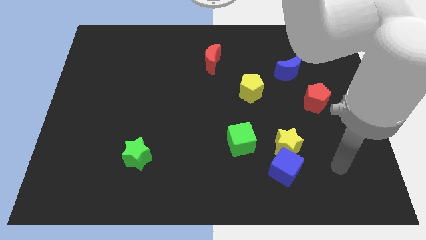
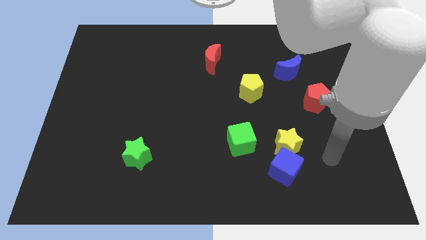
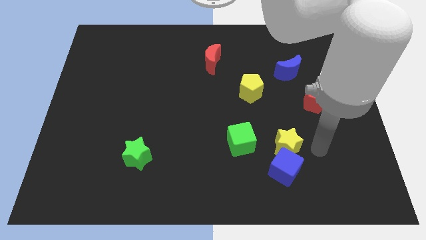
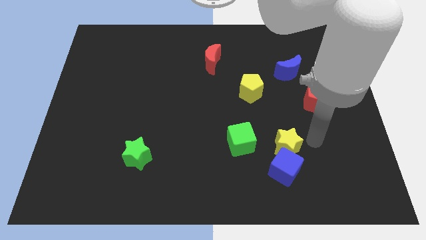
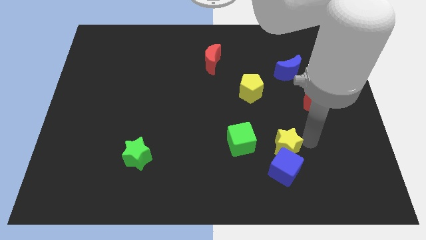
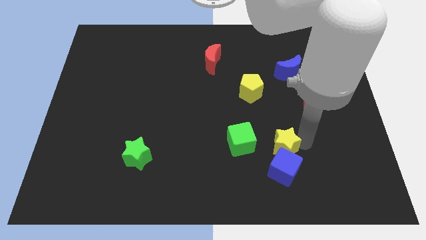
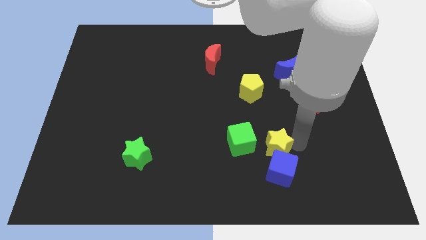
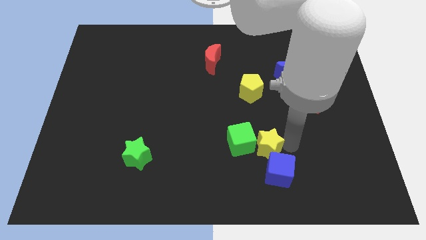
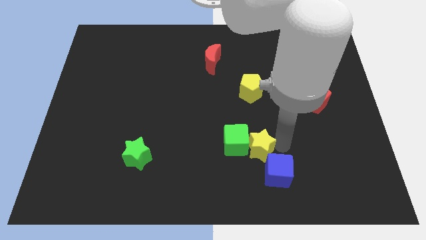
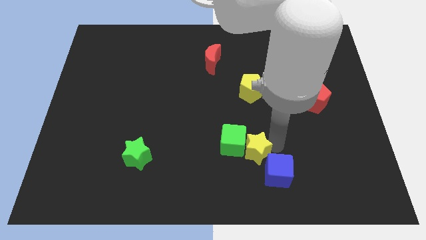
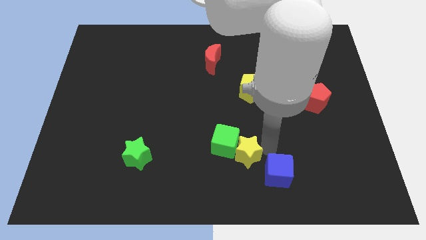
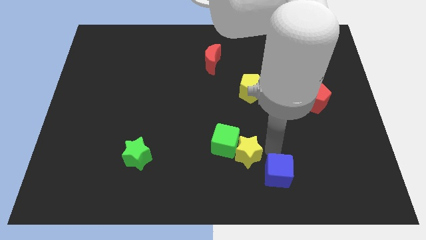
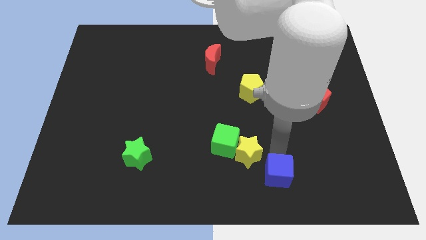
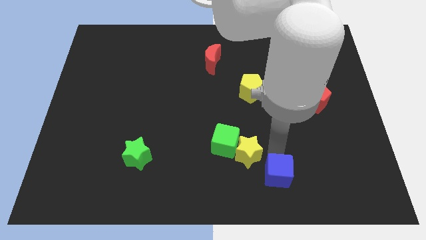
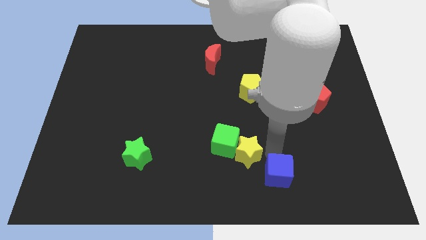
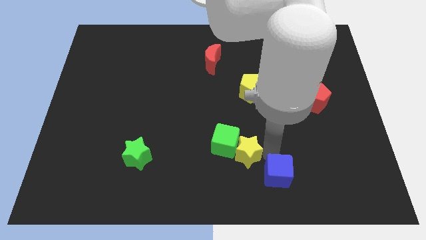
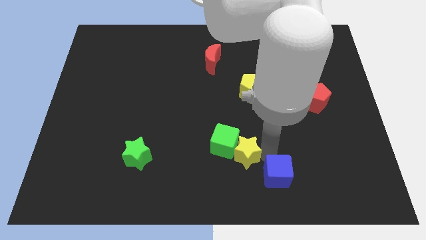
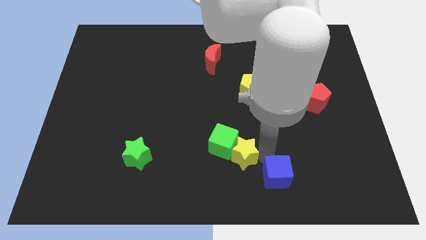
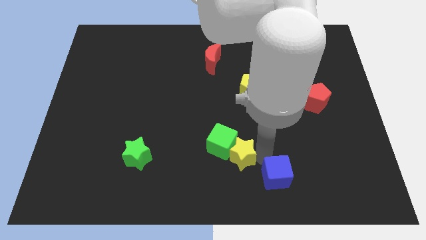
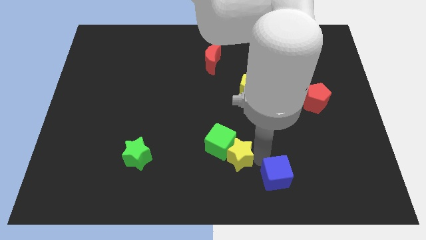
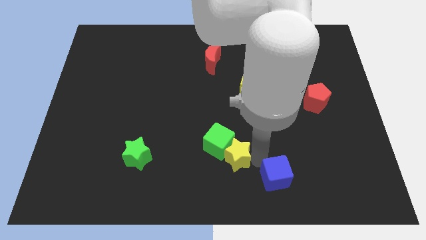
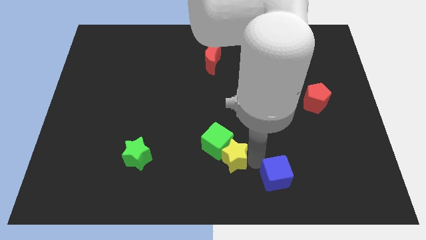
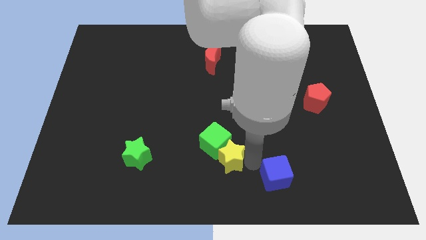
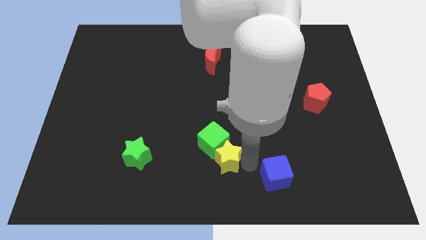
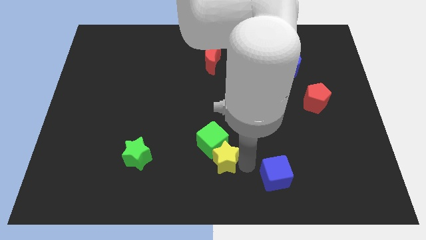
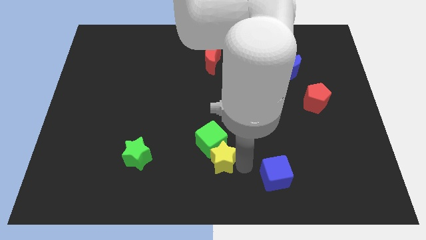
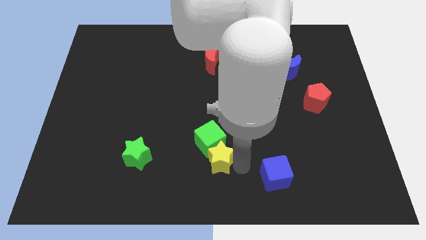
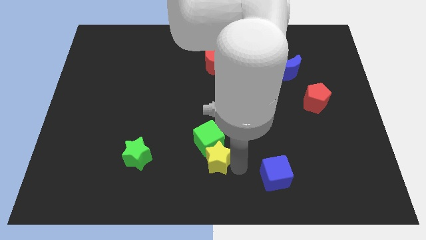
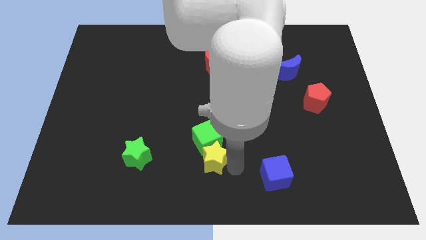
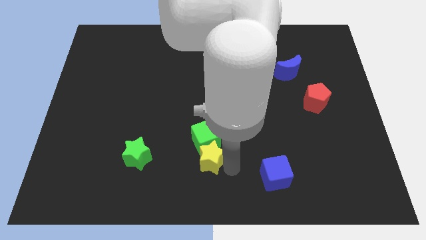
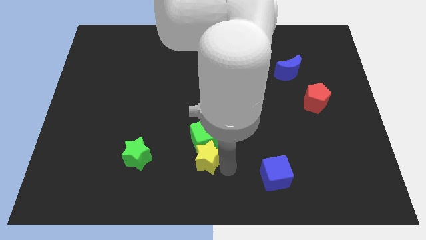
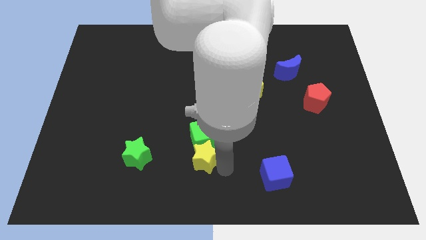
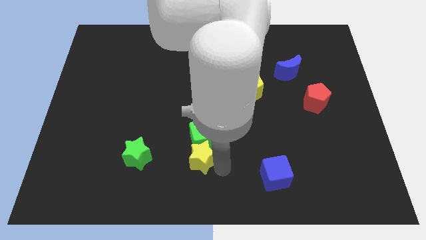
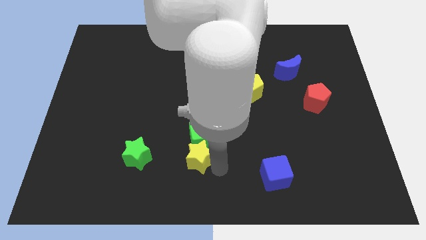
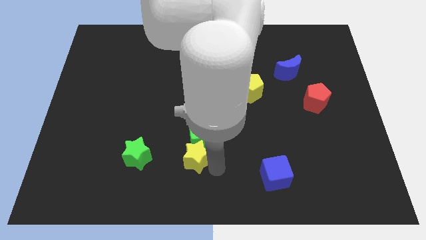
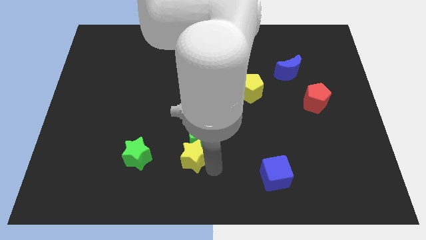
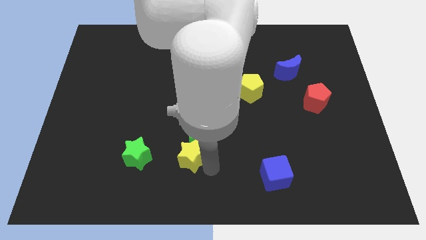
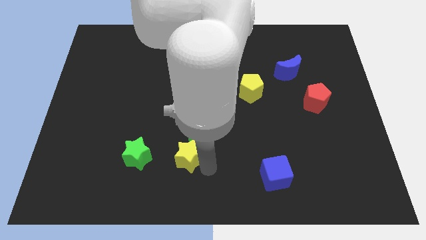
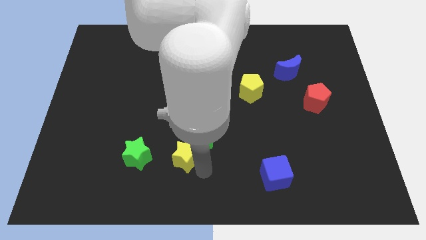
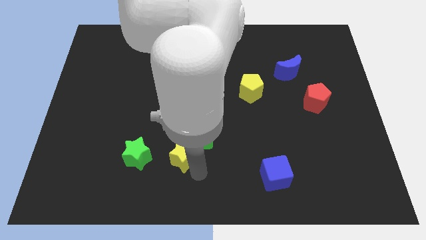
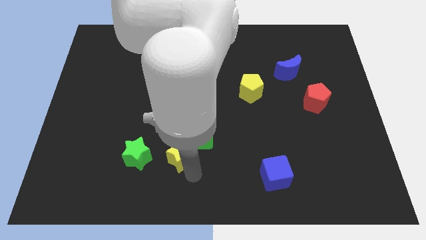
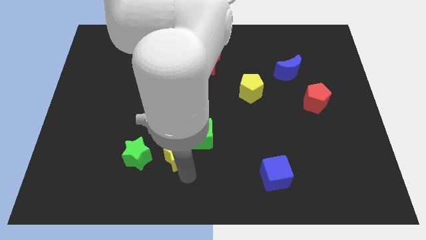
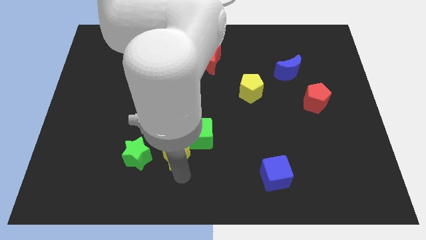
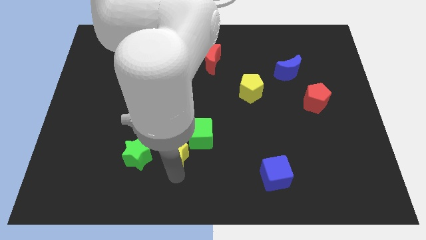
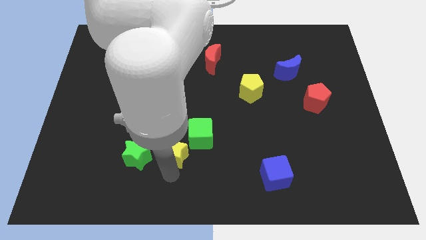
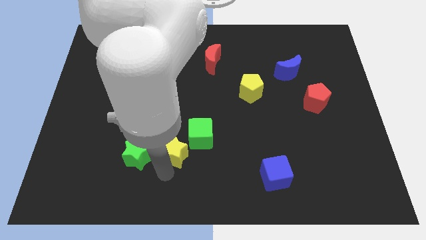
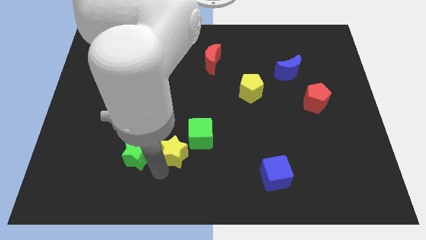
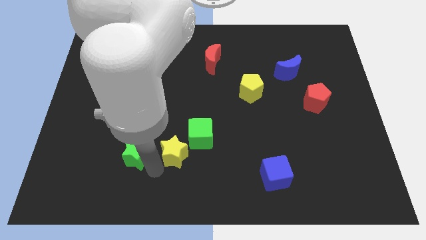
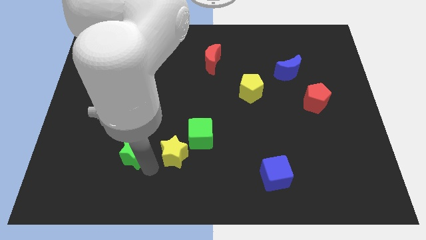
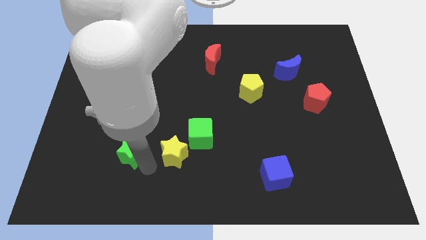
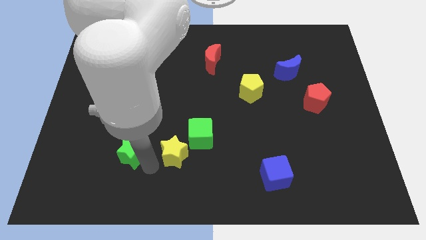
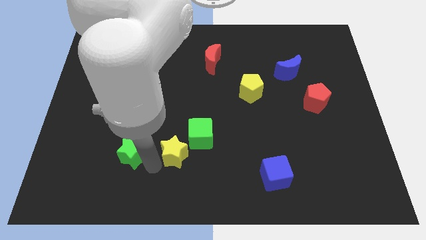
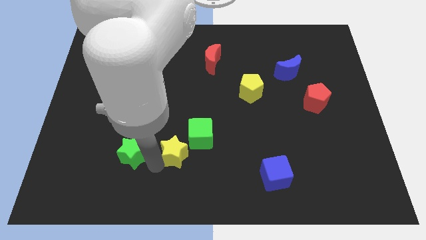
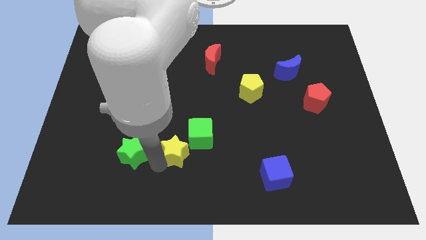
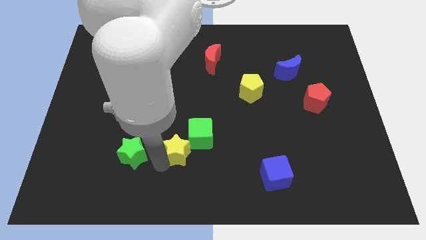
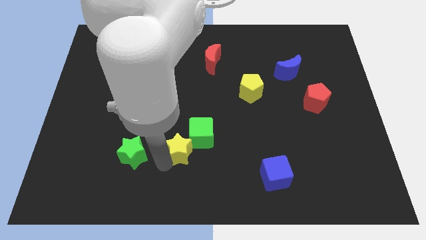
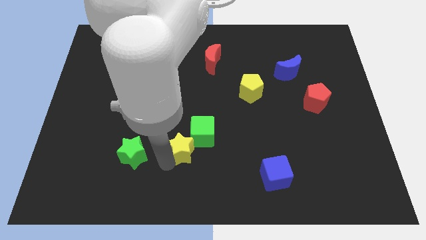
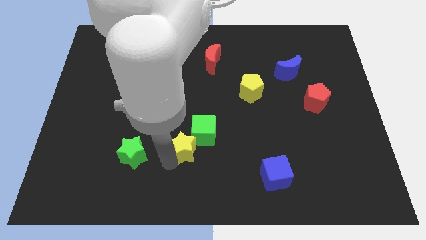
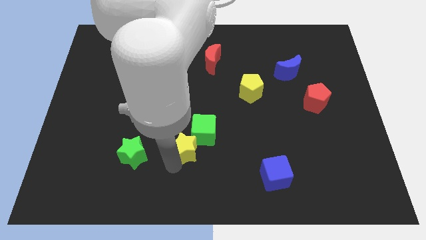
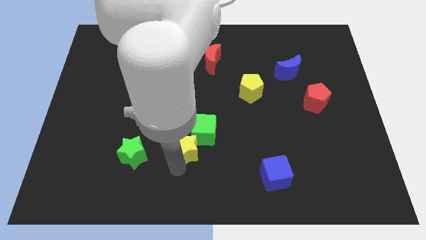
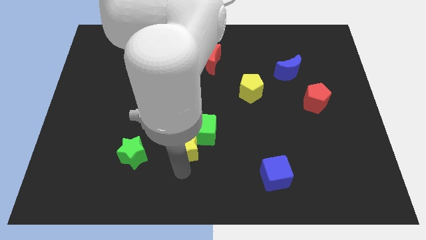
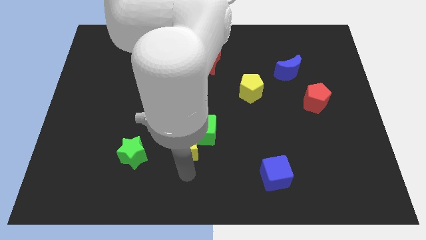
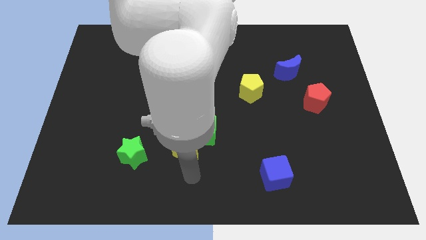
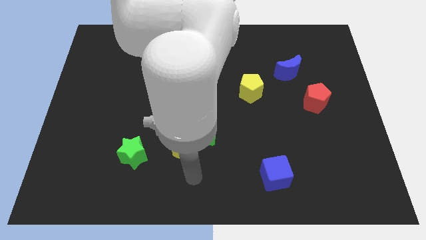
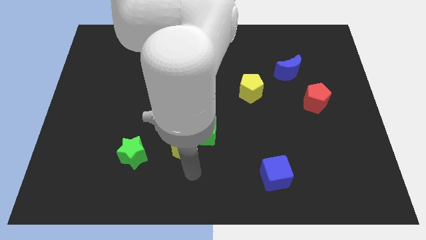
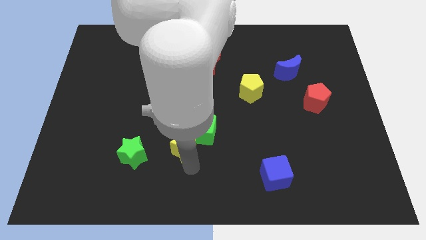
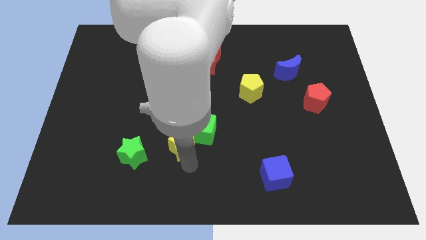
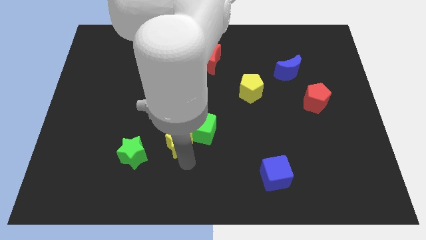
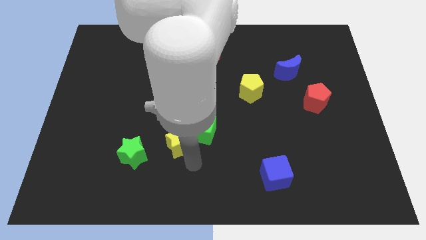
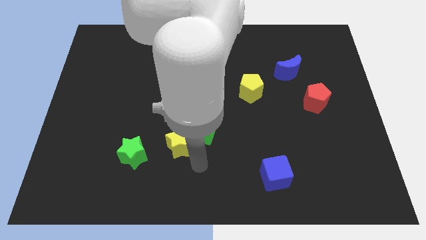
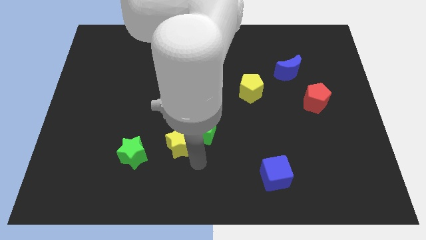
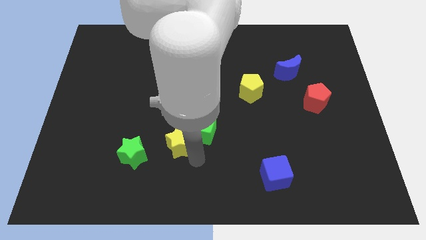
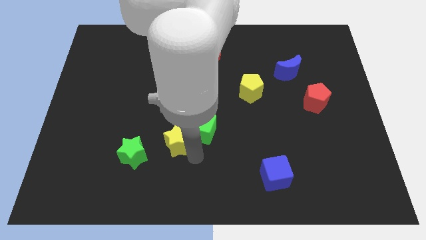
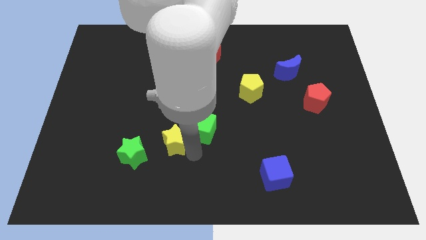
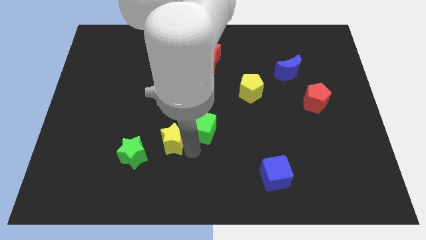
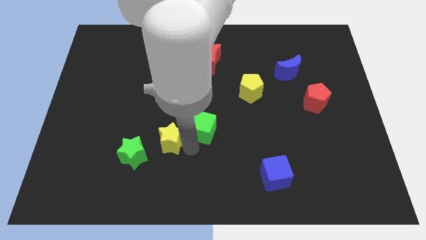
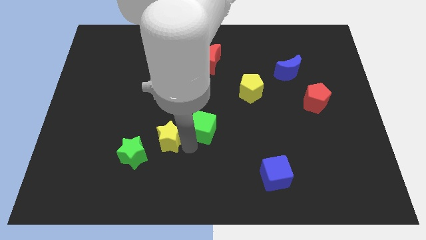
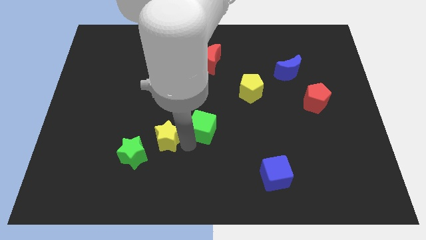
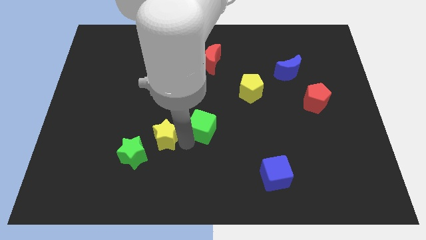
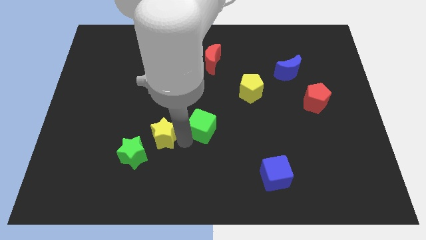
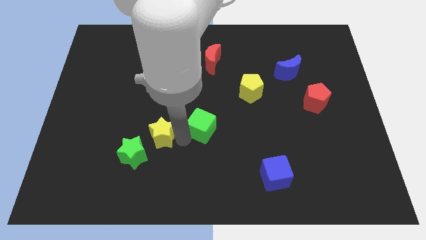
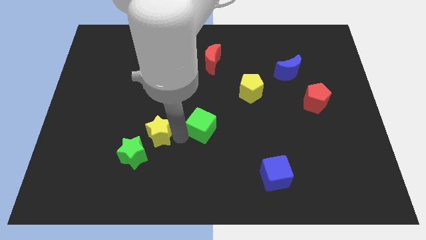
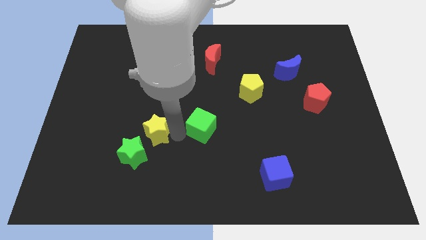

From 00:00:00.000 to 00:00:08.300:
move the yellow star above the green star
